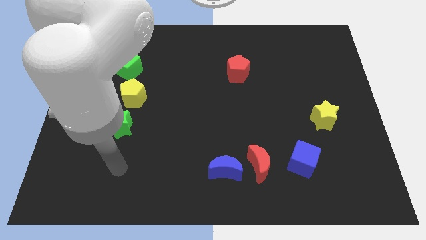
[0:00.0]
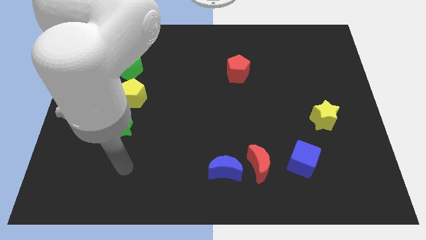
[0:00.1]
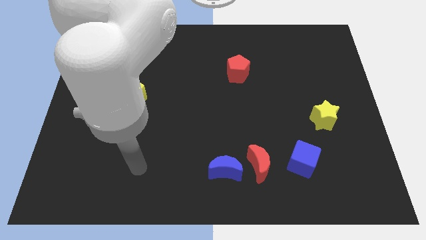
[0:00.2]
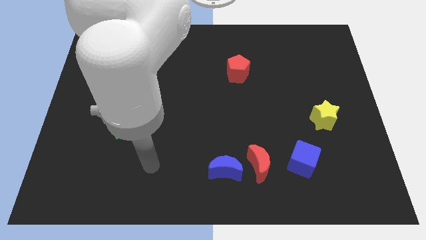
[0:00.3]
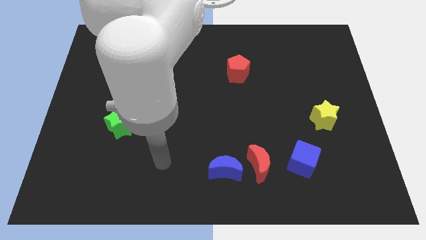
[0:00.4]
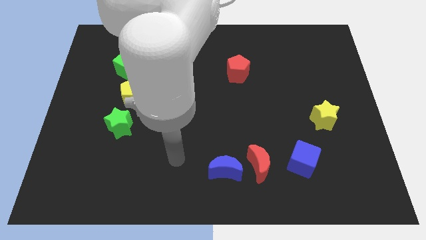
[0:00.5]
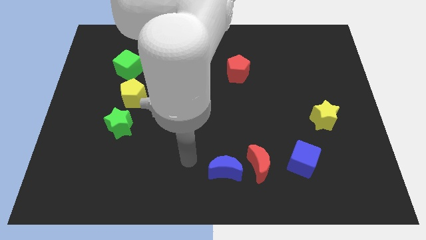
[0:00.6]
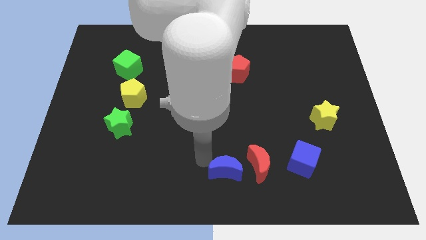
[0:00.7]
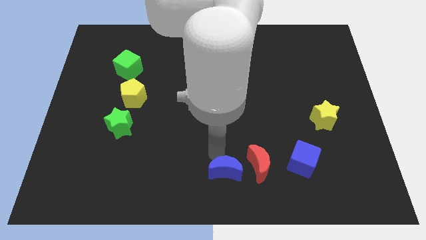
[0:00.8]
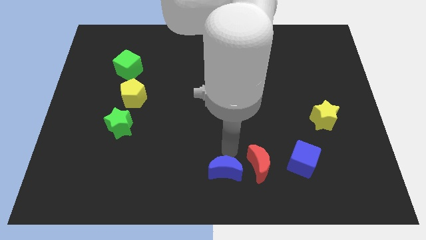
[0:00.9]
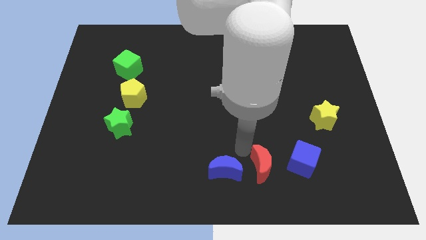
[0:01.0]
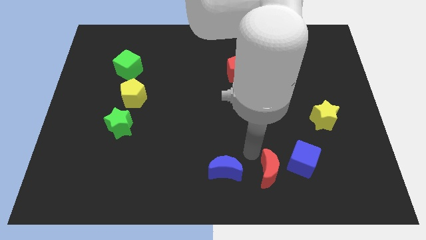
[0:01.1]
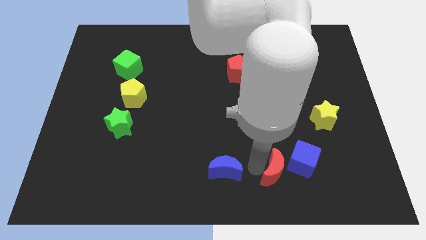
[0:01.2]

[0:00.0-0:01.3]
separate the blue moon from the red moon

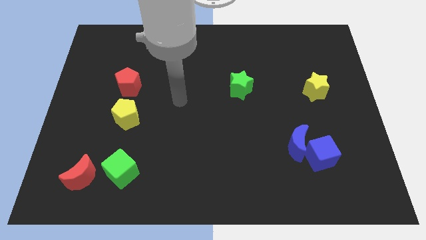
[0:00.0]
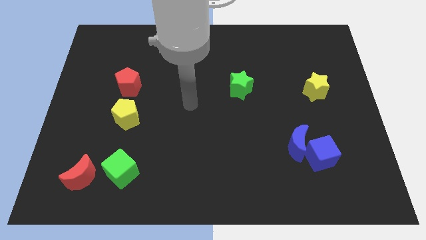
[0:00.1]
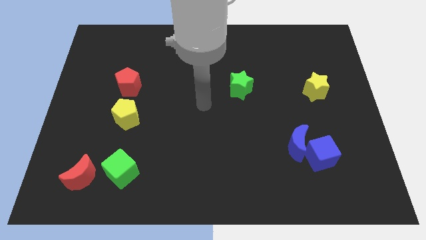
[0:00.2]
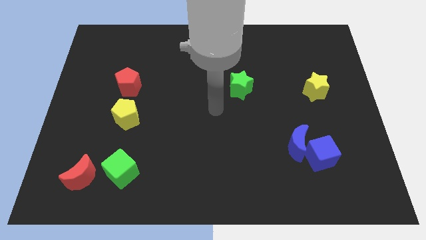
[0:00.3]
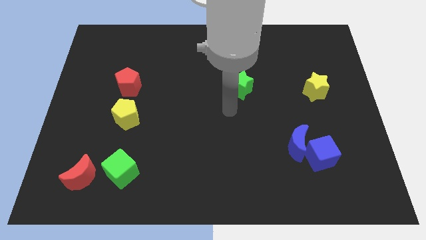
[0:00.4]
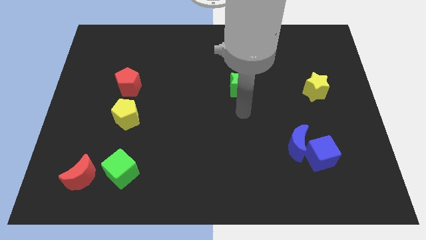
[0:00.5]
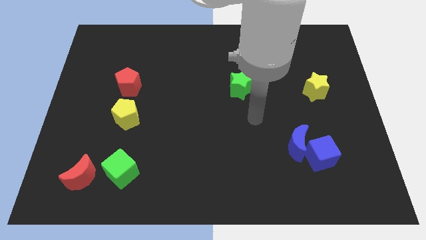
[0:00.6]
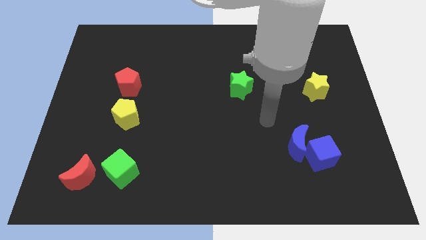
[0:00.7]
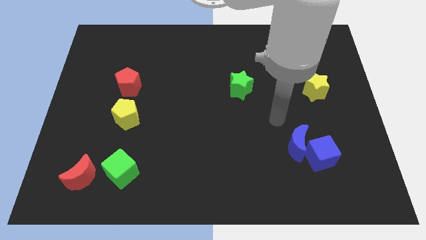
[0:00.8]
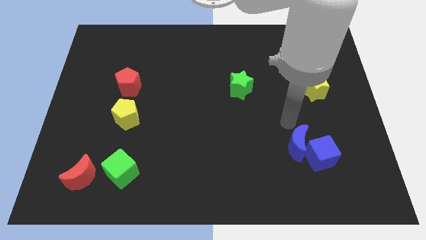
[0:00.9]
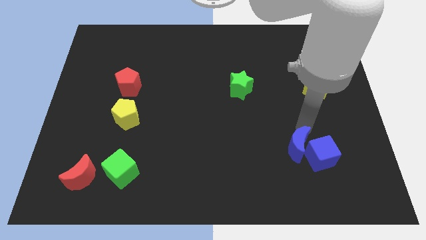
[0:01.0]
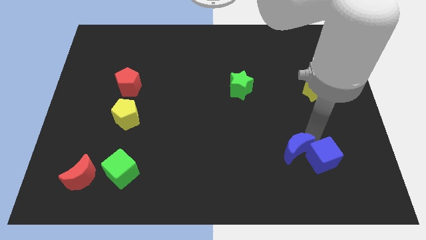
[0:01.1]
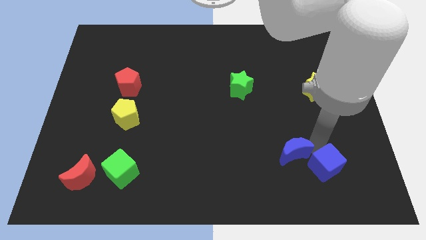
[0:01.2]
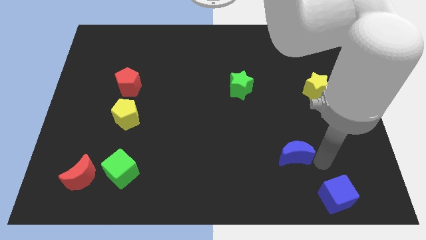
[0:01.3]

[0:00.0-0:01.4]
move the blue moon away from the blue cube

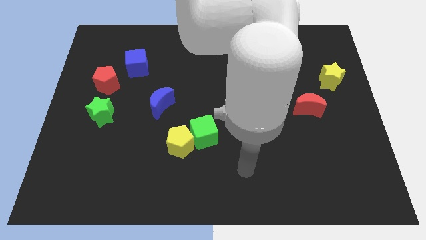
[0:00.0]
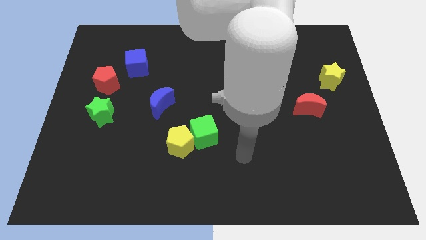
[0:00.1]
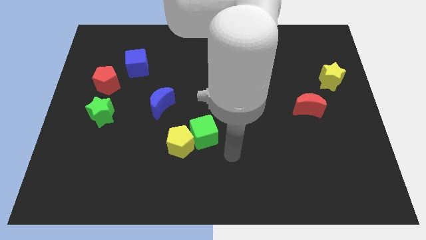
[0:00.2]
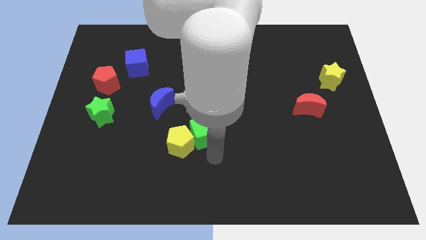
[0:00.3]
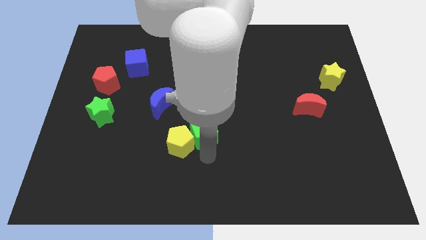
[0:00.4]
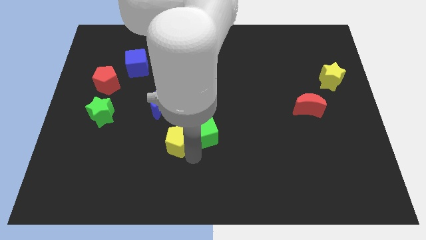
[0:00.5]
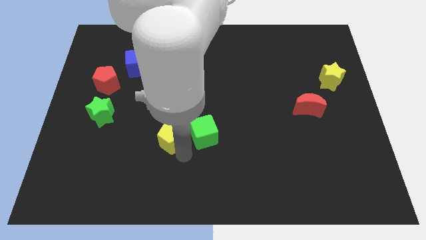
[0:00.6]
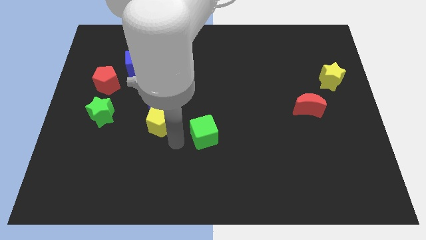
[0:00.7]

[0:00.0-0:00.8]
move the green cube away from the yellow pentagon

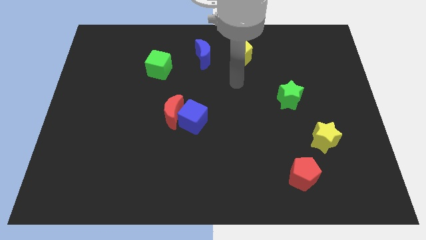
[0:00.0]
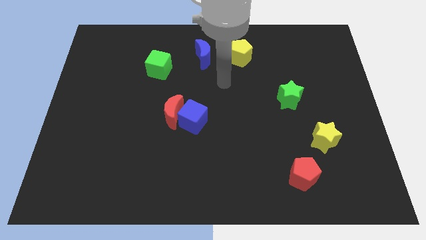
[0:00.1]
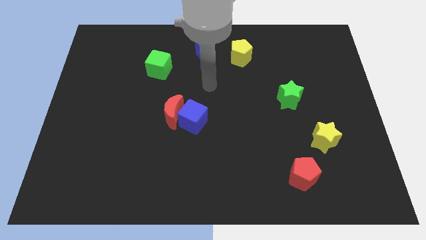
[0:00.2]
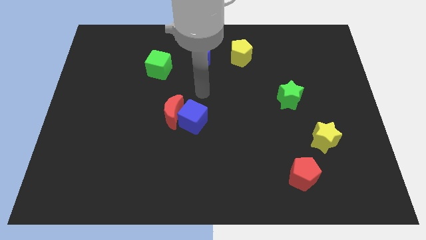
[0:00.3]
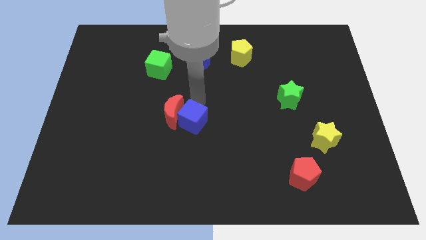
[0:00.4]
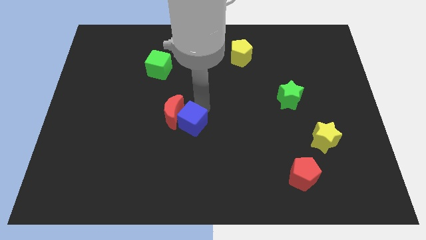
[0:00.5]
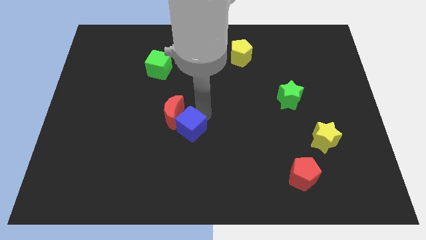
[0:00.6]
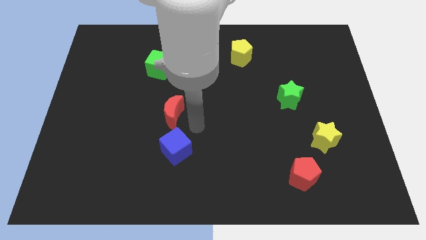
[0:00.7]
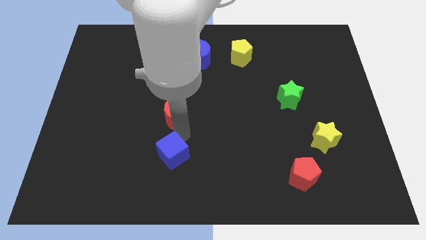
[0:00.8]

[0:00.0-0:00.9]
move the red moon away from the blue cube

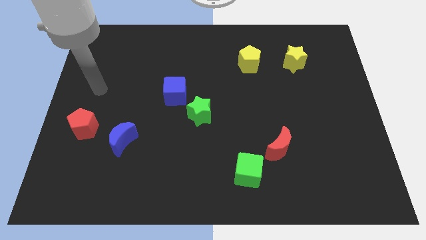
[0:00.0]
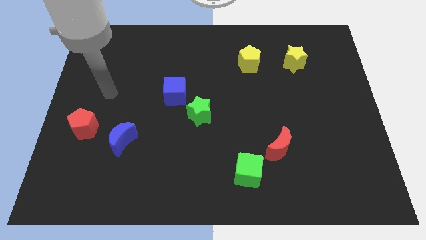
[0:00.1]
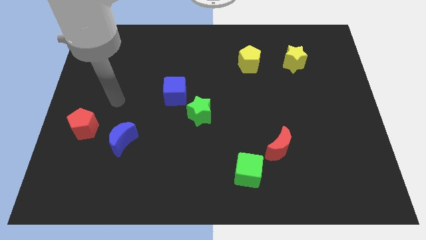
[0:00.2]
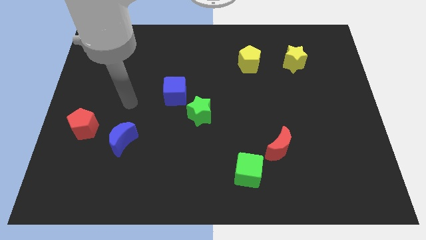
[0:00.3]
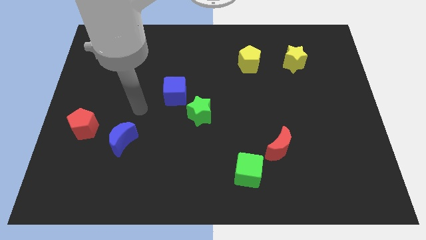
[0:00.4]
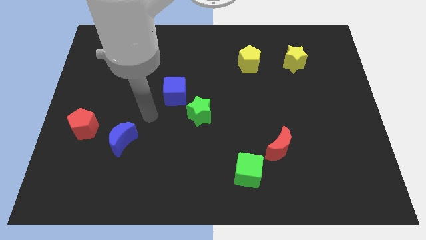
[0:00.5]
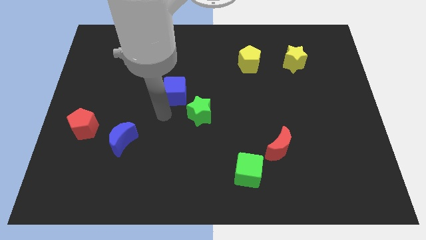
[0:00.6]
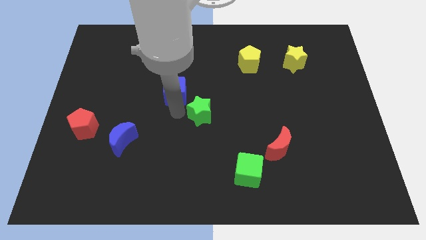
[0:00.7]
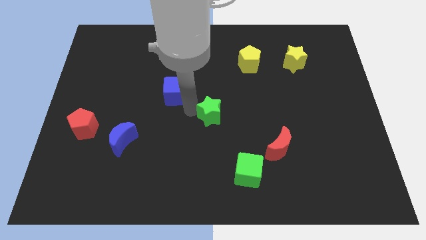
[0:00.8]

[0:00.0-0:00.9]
separate the blue cube from the green star

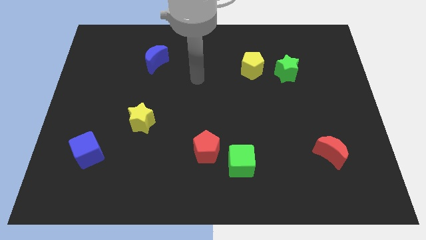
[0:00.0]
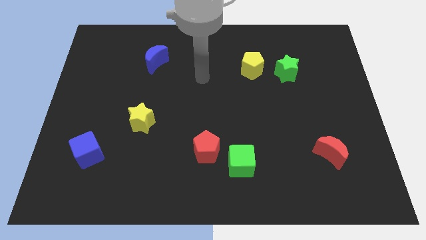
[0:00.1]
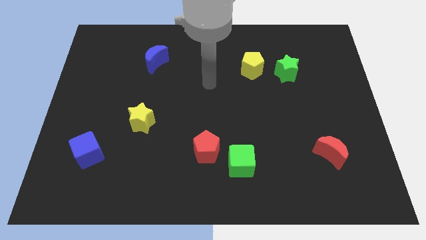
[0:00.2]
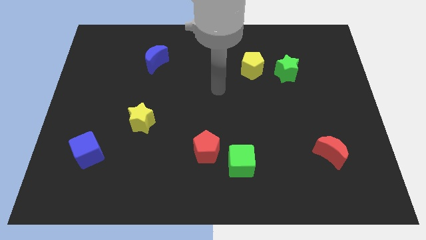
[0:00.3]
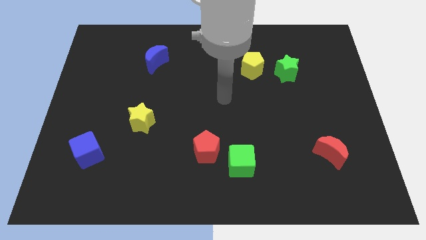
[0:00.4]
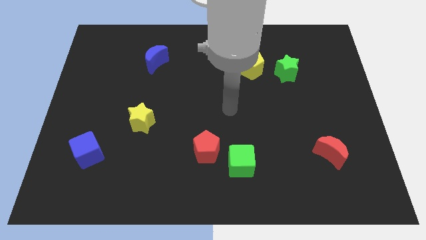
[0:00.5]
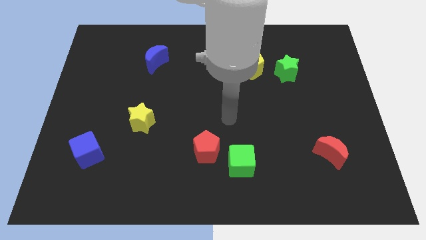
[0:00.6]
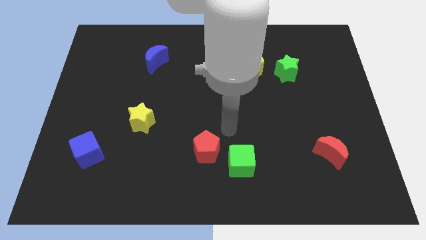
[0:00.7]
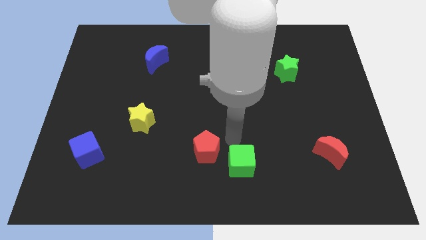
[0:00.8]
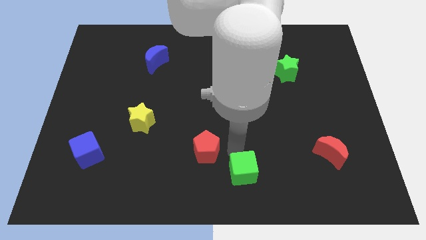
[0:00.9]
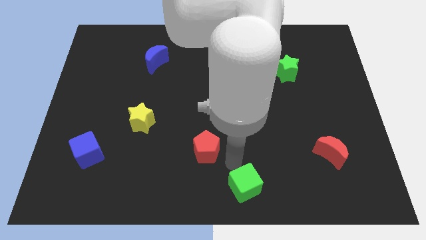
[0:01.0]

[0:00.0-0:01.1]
separate the red pentagon from the green cube

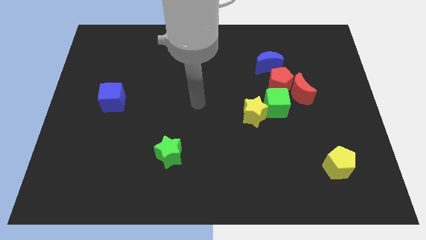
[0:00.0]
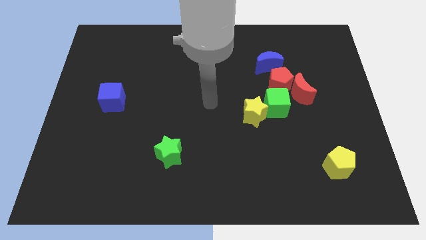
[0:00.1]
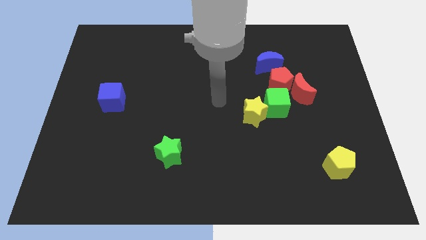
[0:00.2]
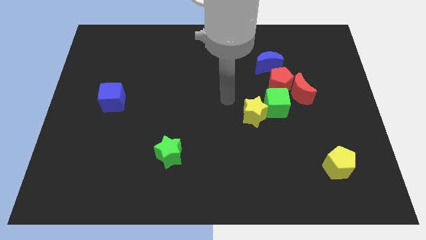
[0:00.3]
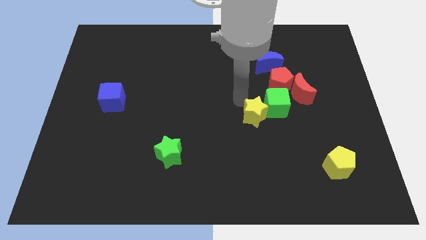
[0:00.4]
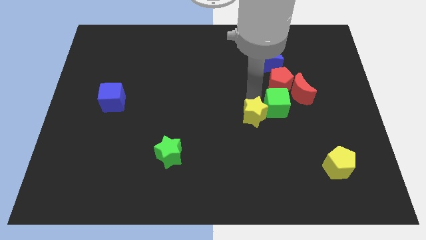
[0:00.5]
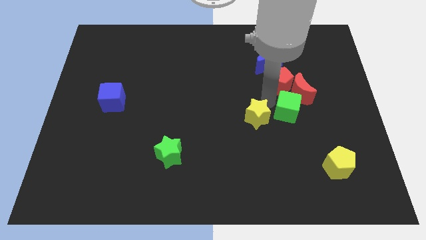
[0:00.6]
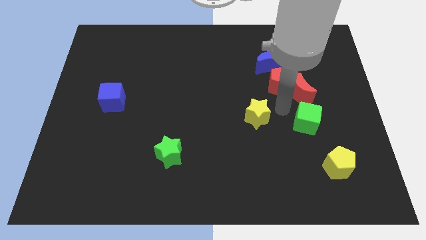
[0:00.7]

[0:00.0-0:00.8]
separate the yellow star from the green cube

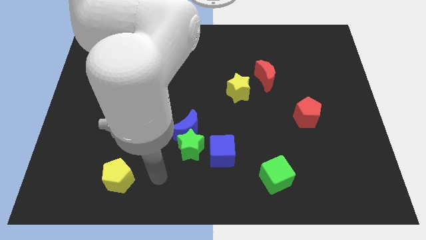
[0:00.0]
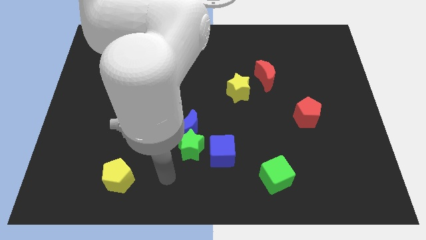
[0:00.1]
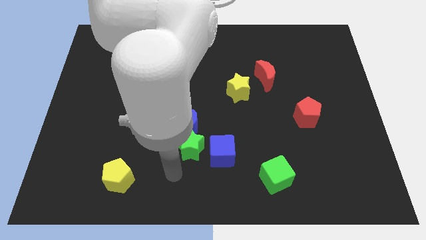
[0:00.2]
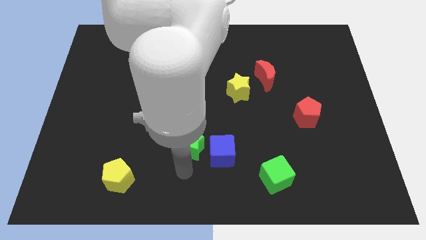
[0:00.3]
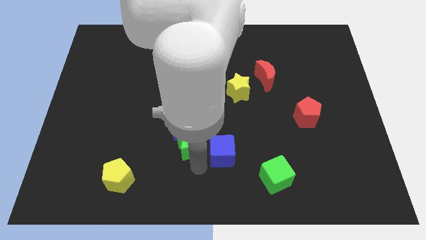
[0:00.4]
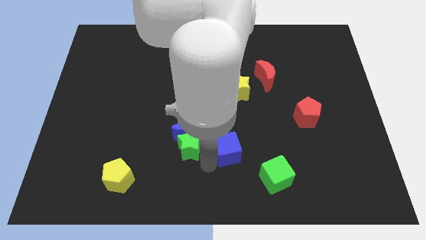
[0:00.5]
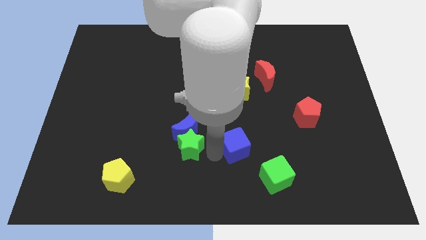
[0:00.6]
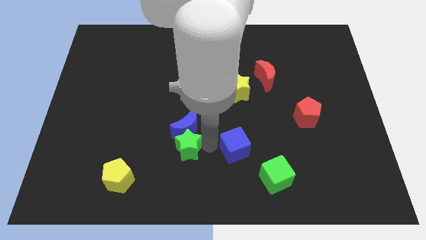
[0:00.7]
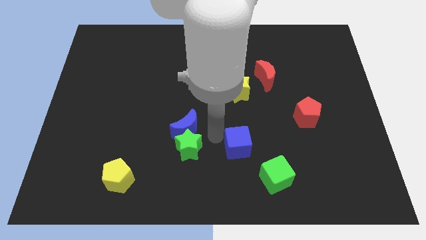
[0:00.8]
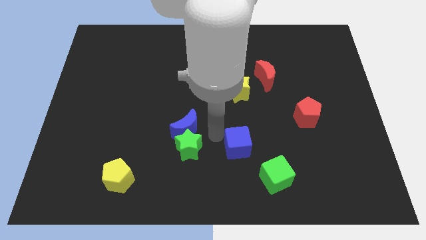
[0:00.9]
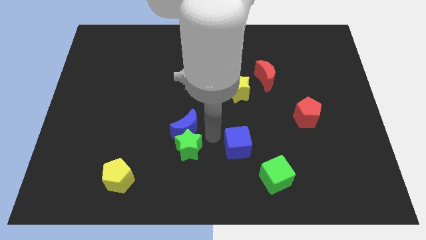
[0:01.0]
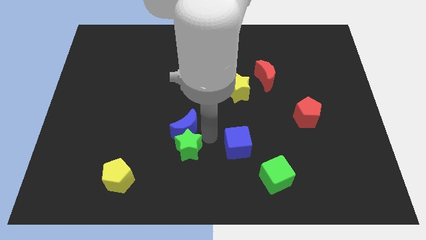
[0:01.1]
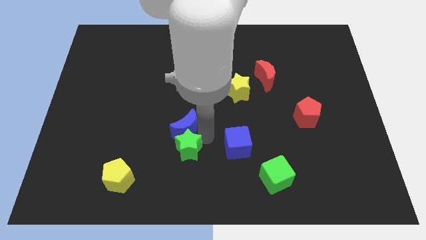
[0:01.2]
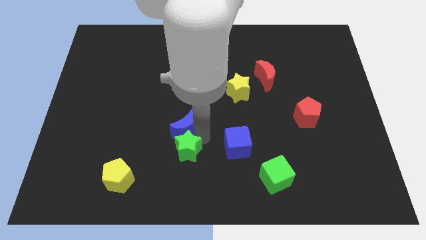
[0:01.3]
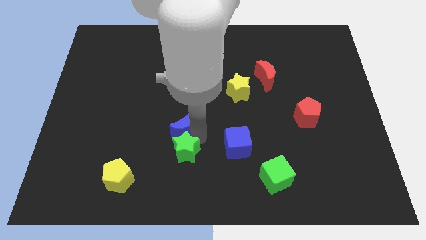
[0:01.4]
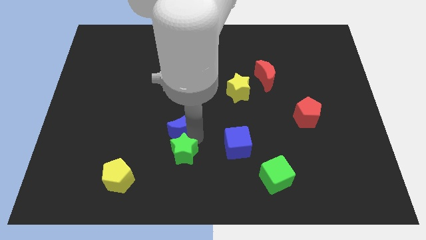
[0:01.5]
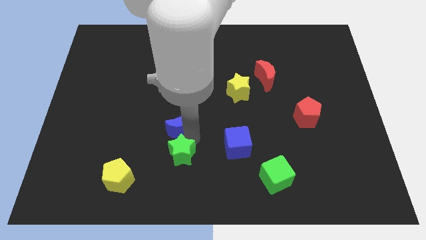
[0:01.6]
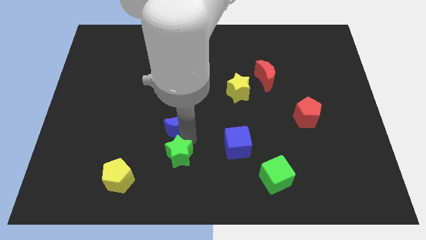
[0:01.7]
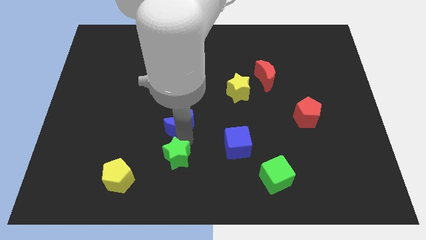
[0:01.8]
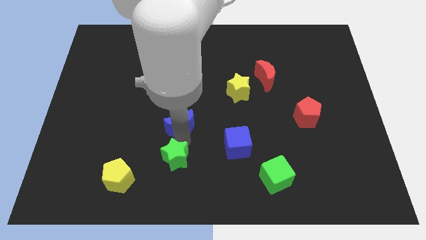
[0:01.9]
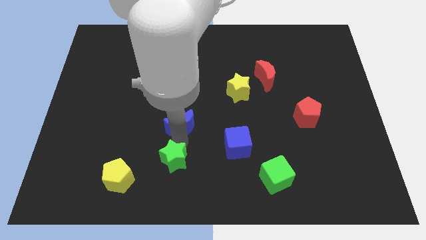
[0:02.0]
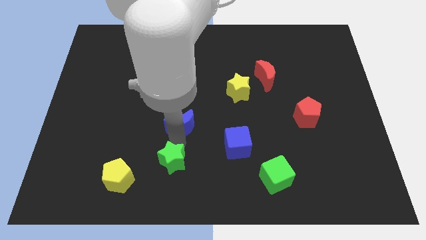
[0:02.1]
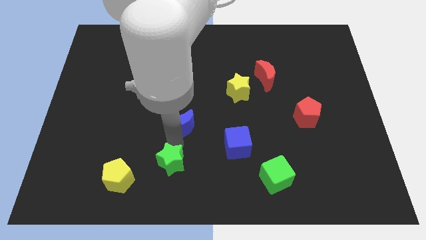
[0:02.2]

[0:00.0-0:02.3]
pull the green star apart from the blue moon and blue cube

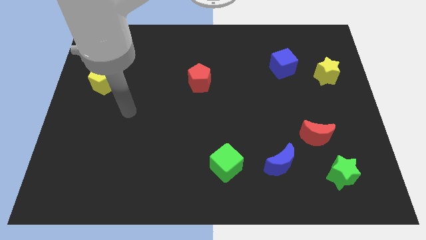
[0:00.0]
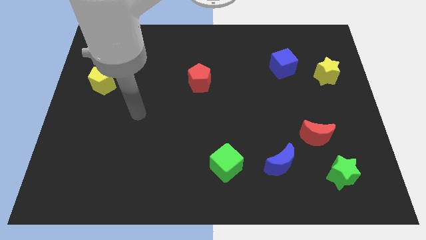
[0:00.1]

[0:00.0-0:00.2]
move the red moon away from the green star
